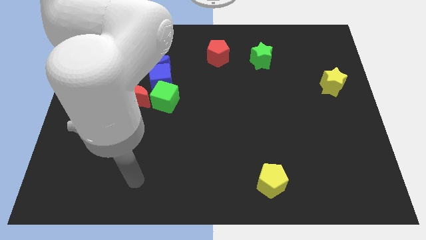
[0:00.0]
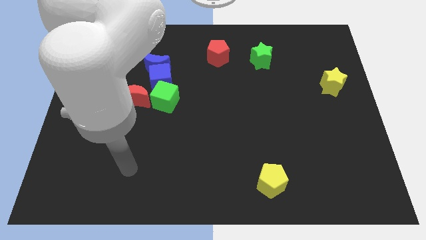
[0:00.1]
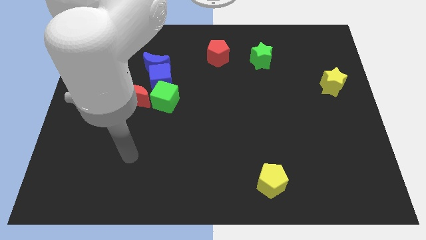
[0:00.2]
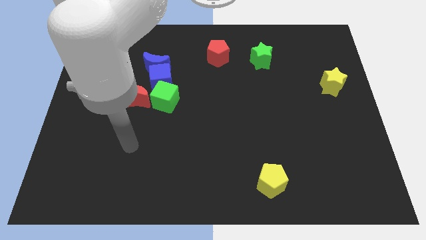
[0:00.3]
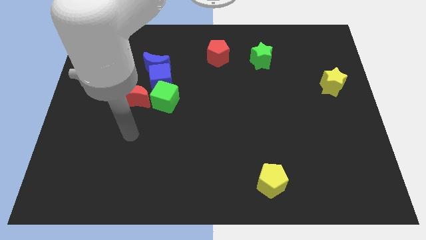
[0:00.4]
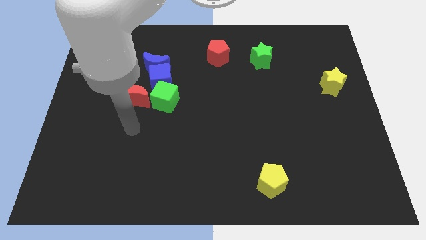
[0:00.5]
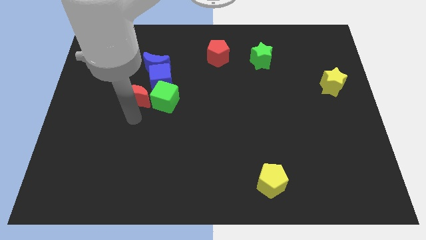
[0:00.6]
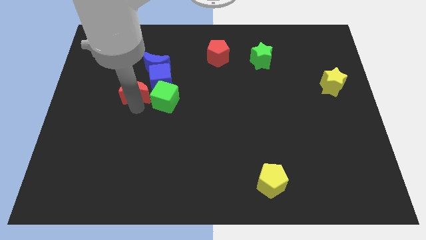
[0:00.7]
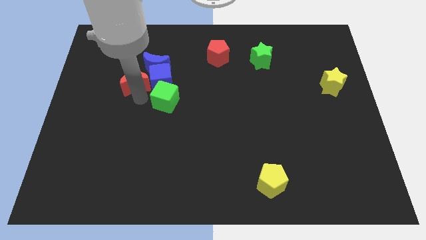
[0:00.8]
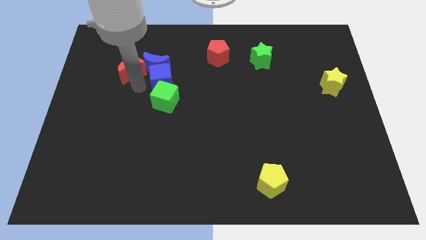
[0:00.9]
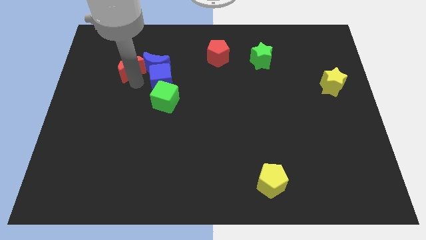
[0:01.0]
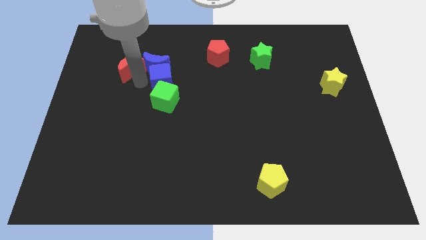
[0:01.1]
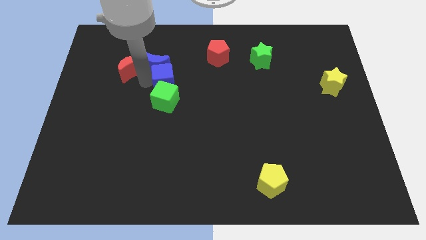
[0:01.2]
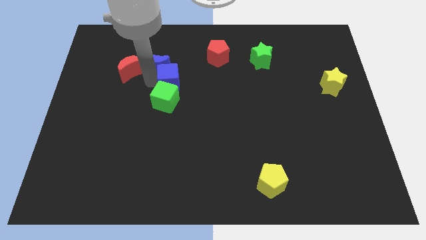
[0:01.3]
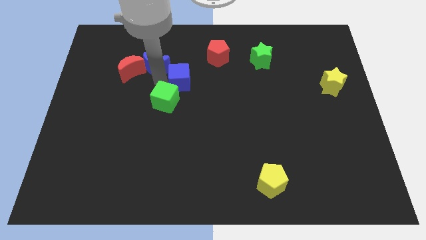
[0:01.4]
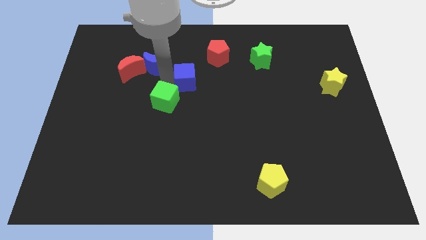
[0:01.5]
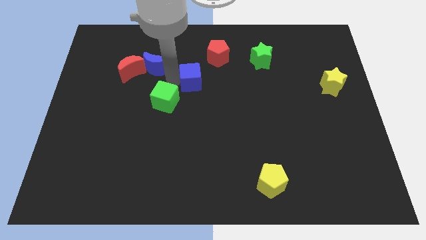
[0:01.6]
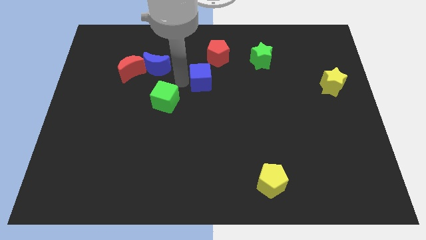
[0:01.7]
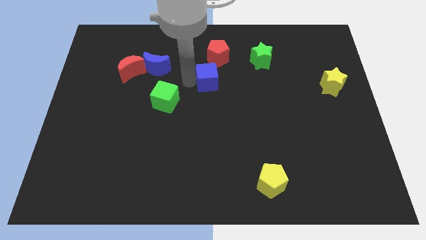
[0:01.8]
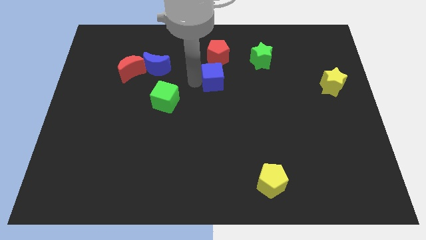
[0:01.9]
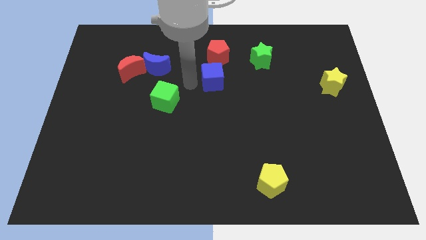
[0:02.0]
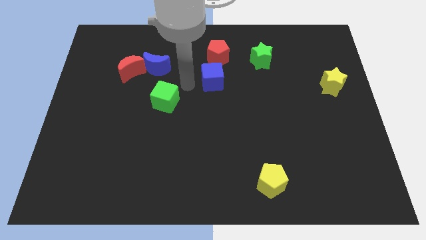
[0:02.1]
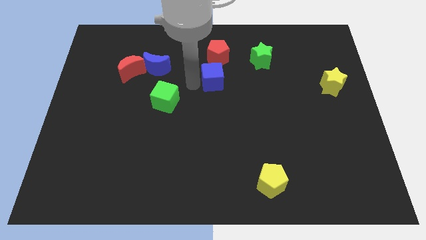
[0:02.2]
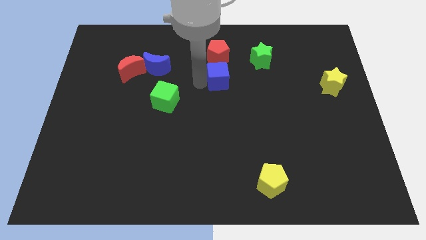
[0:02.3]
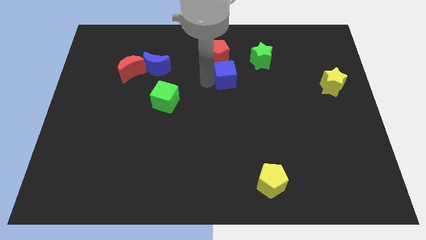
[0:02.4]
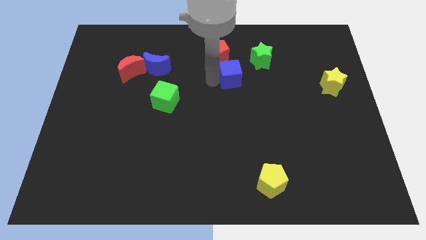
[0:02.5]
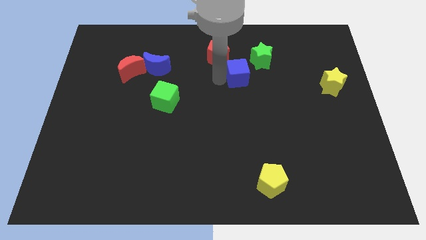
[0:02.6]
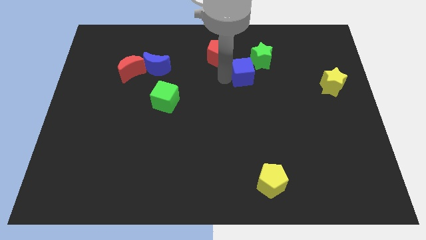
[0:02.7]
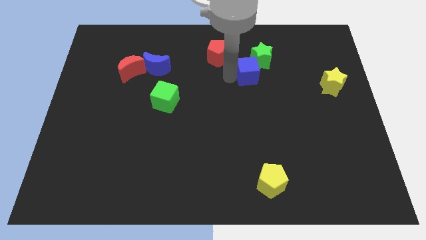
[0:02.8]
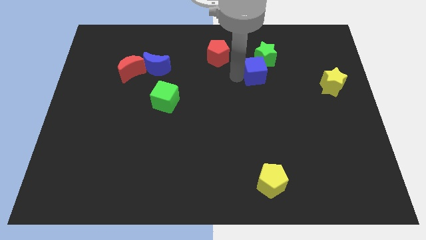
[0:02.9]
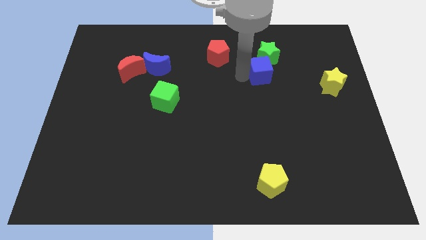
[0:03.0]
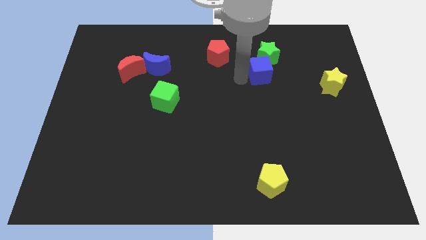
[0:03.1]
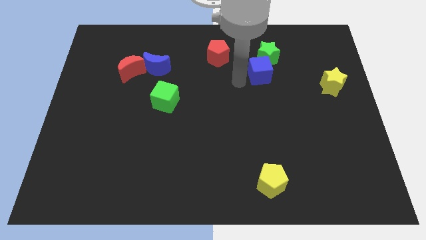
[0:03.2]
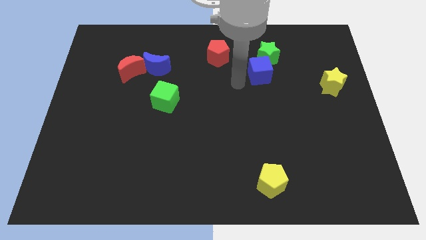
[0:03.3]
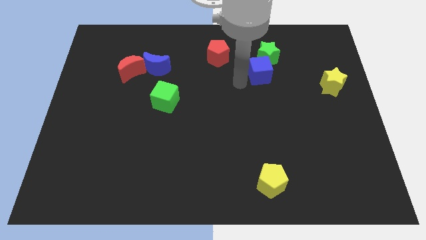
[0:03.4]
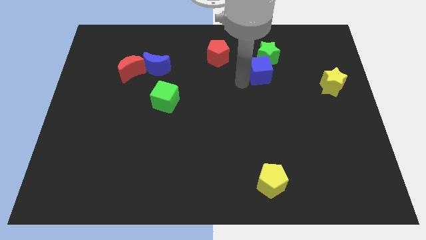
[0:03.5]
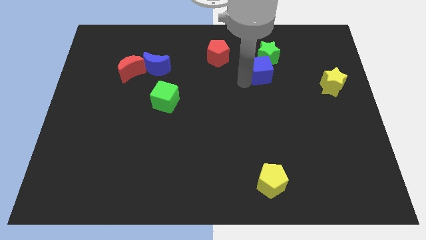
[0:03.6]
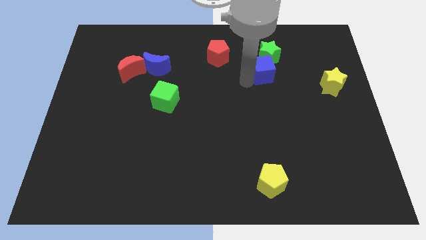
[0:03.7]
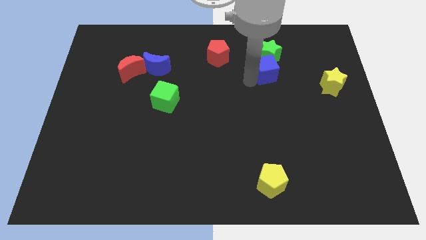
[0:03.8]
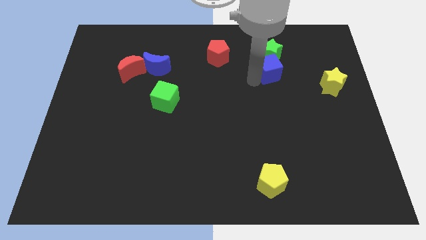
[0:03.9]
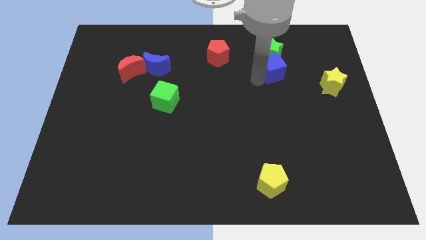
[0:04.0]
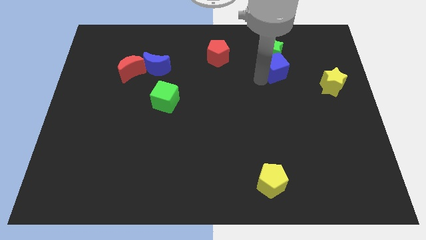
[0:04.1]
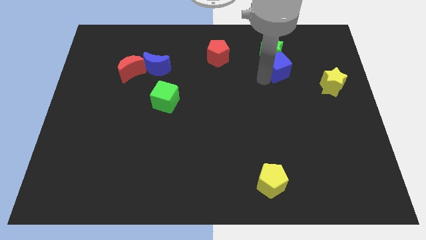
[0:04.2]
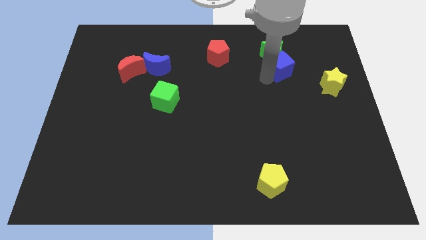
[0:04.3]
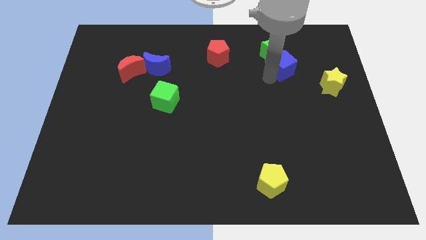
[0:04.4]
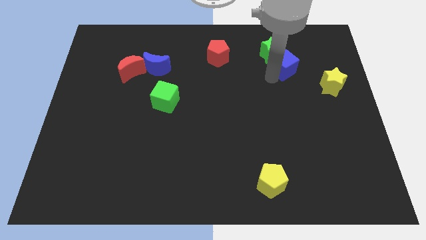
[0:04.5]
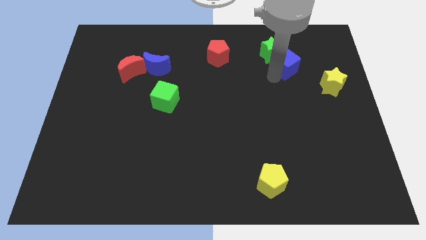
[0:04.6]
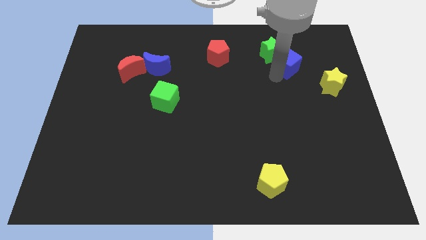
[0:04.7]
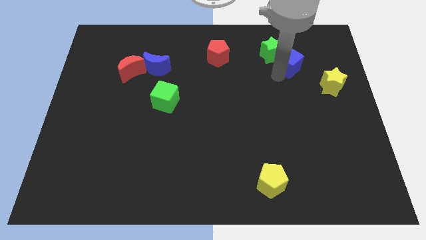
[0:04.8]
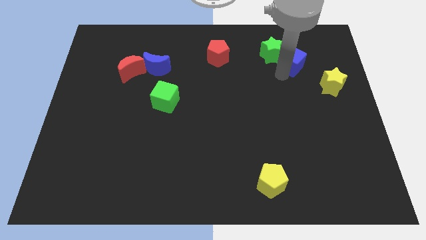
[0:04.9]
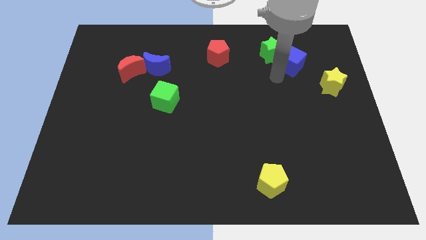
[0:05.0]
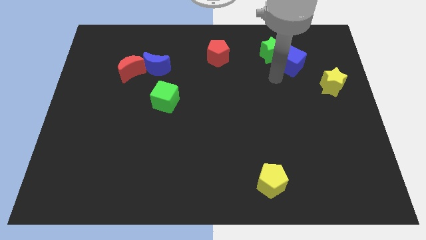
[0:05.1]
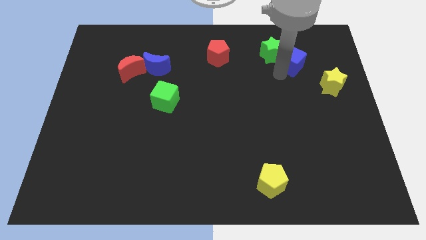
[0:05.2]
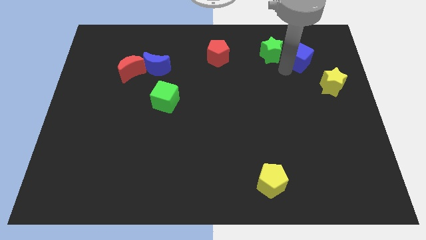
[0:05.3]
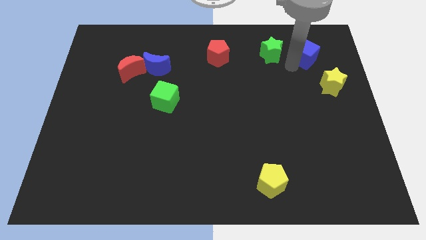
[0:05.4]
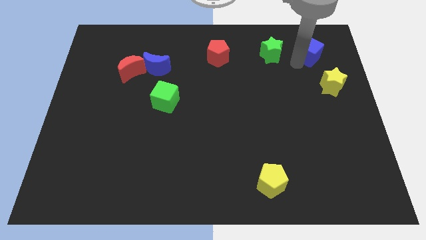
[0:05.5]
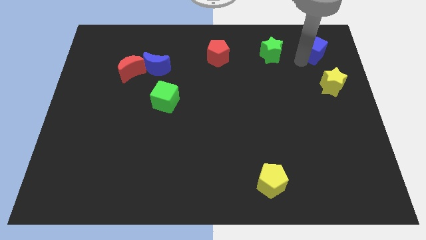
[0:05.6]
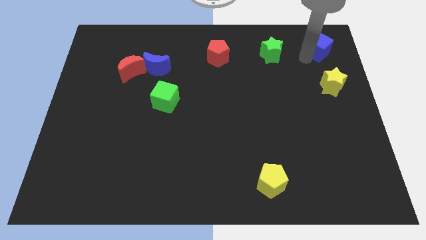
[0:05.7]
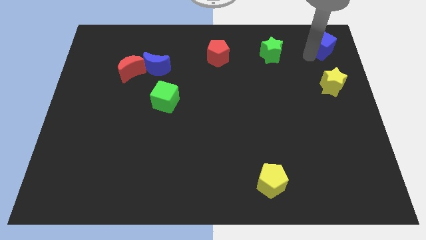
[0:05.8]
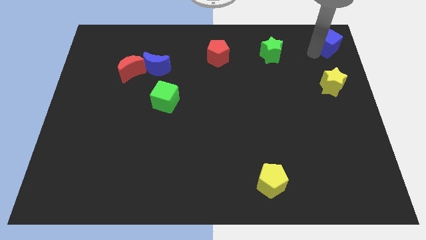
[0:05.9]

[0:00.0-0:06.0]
push the blue cube to the upper right corner

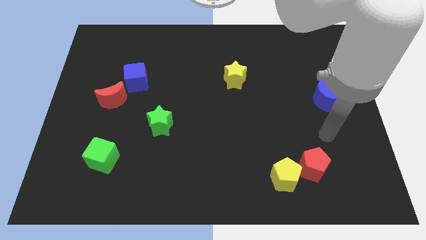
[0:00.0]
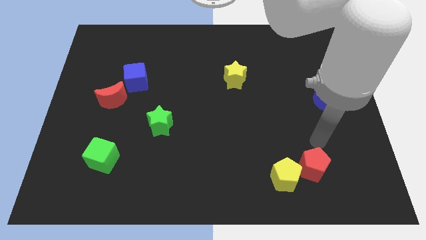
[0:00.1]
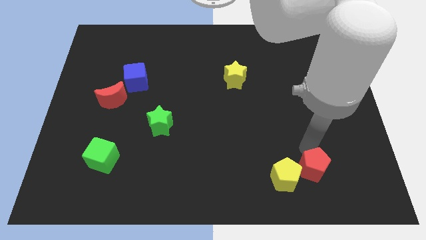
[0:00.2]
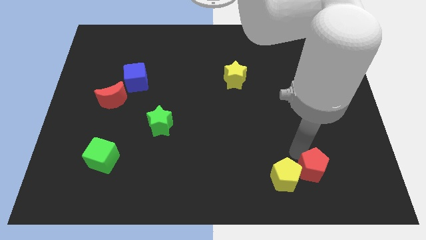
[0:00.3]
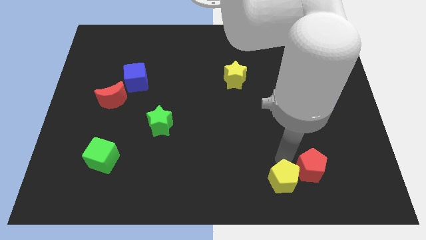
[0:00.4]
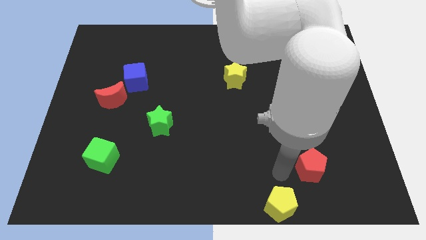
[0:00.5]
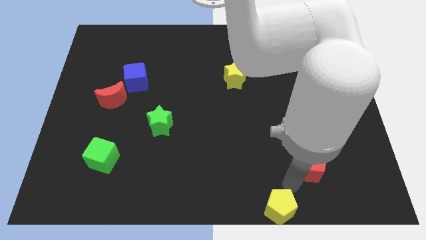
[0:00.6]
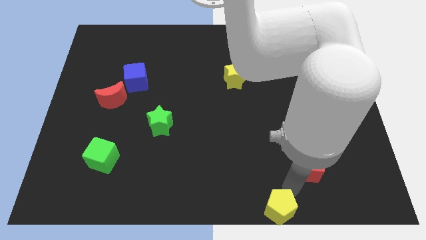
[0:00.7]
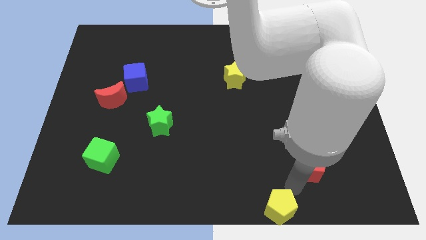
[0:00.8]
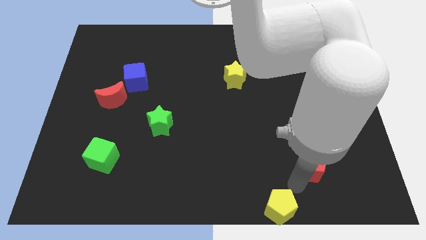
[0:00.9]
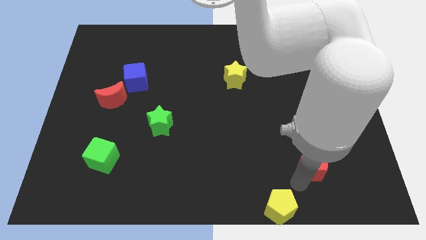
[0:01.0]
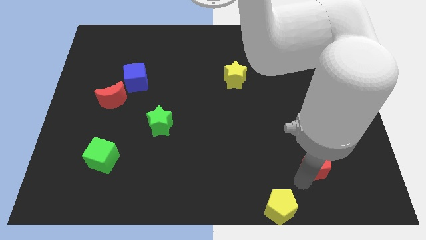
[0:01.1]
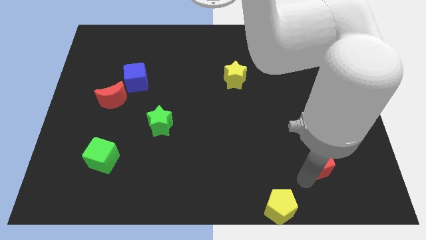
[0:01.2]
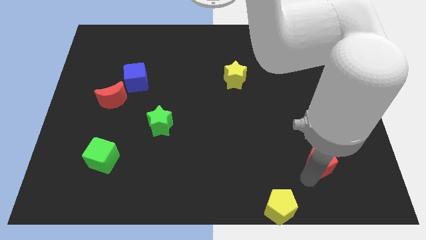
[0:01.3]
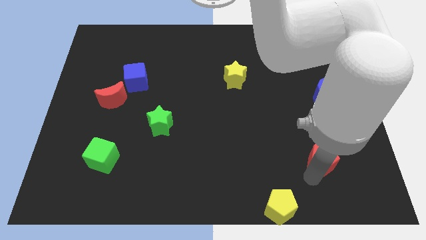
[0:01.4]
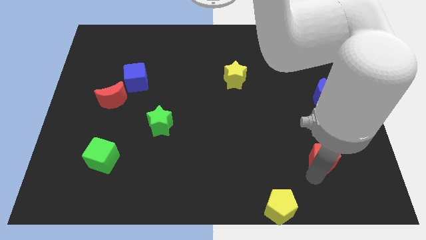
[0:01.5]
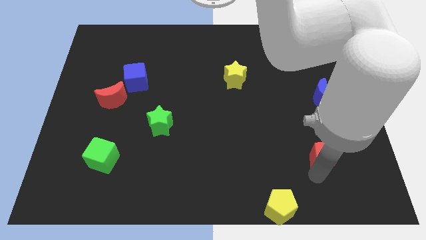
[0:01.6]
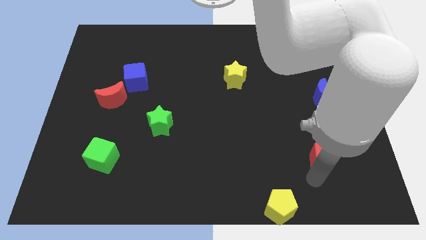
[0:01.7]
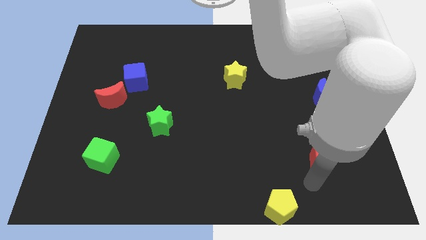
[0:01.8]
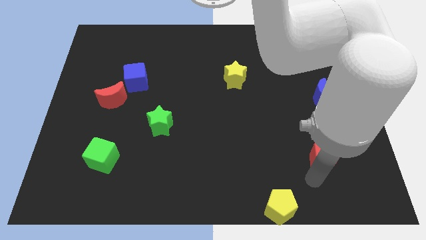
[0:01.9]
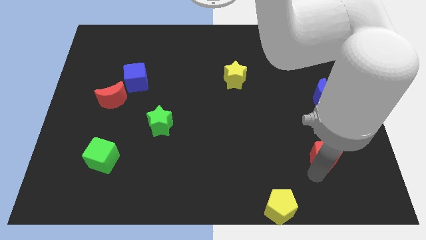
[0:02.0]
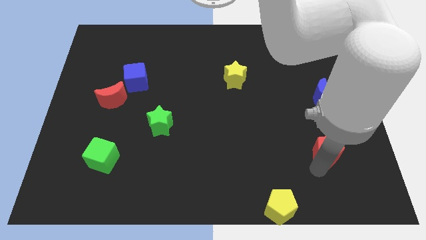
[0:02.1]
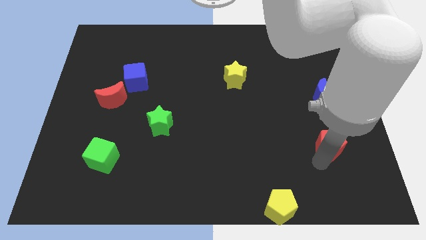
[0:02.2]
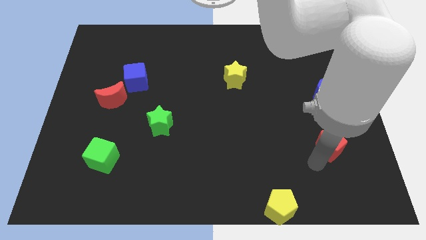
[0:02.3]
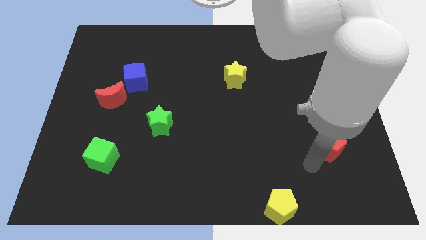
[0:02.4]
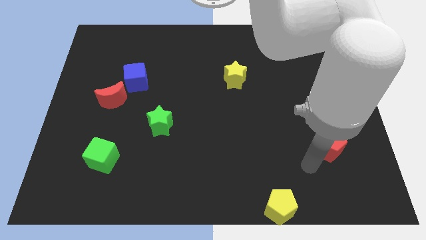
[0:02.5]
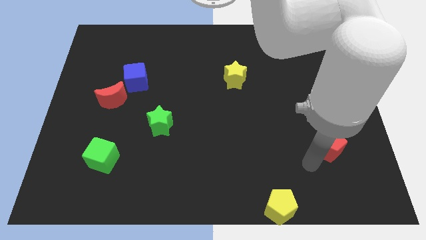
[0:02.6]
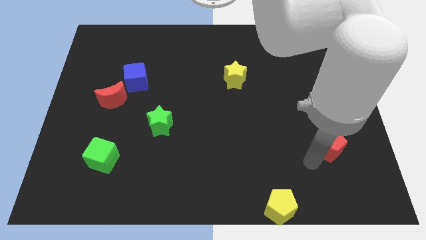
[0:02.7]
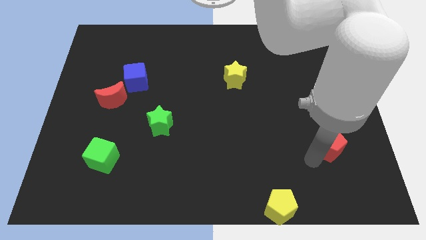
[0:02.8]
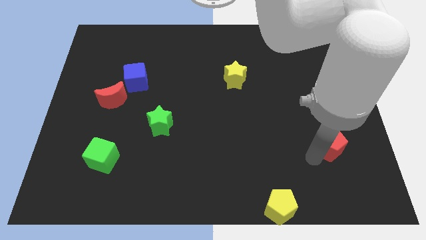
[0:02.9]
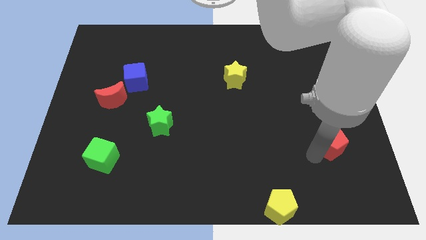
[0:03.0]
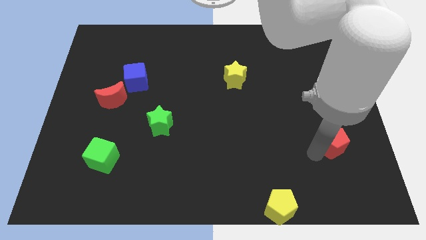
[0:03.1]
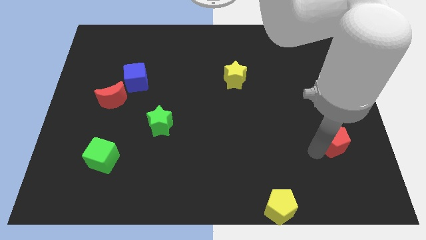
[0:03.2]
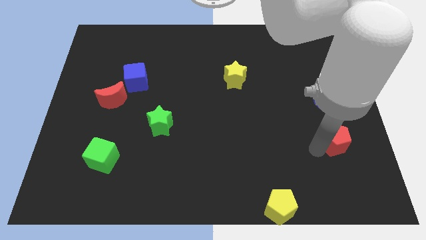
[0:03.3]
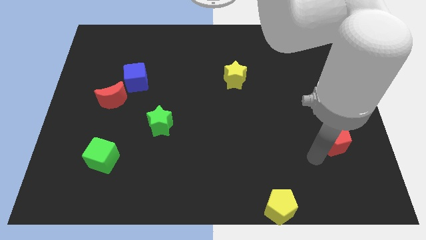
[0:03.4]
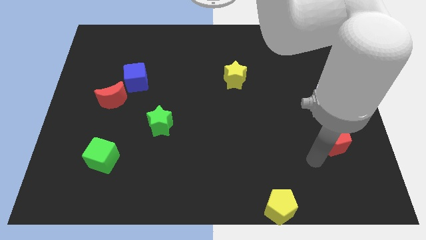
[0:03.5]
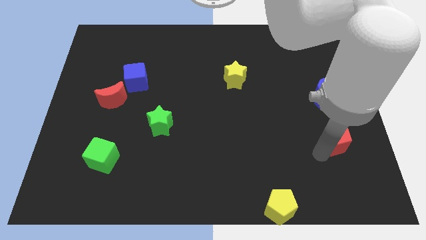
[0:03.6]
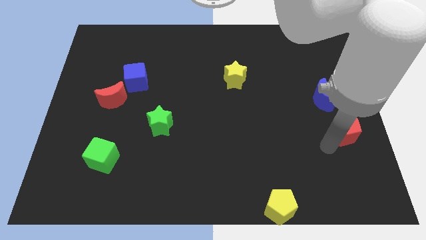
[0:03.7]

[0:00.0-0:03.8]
move the red pentagon to the center right
